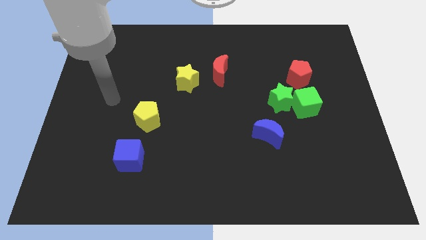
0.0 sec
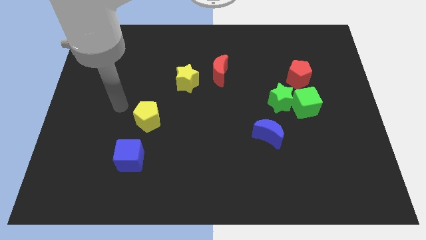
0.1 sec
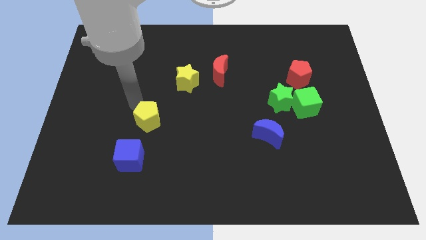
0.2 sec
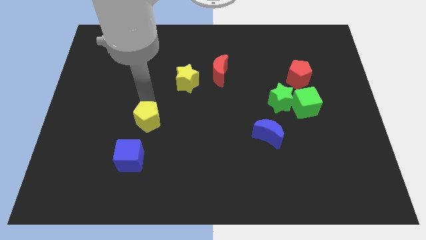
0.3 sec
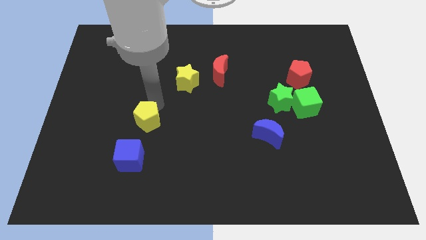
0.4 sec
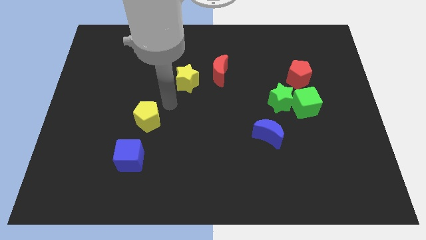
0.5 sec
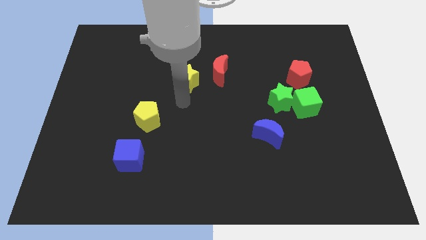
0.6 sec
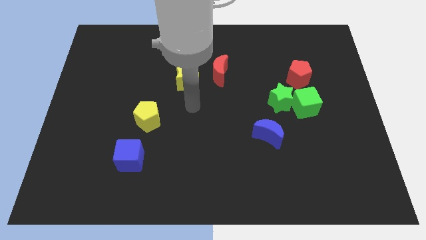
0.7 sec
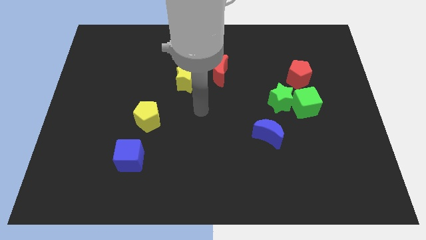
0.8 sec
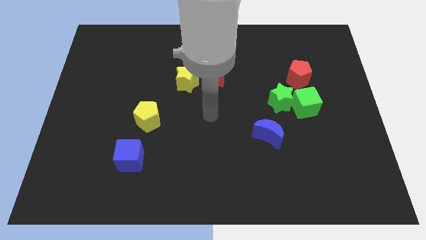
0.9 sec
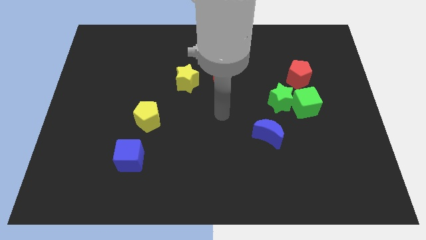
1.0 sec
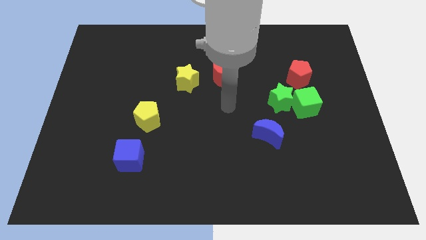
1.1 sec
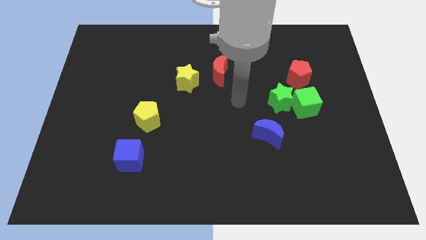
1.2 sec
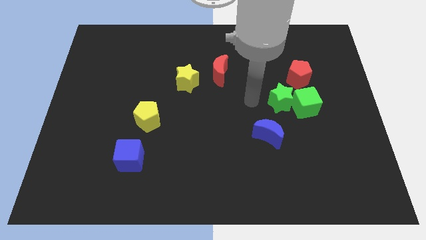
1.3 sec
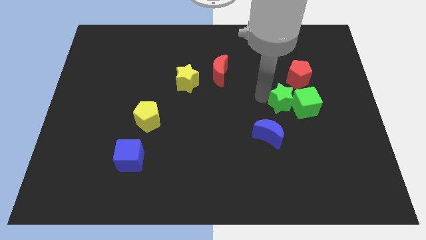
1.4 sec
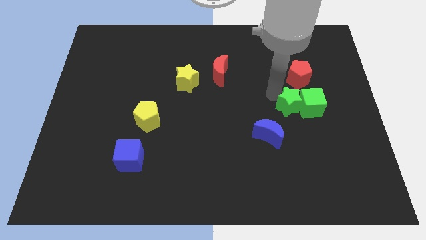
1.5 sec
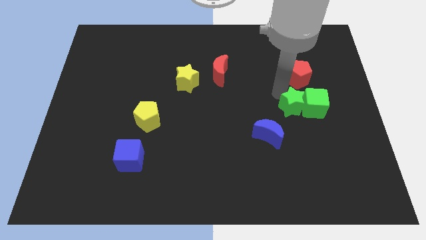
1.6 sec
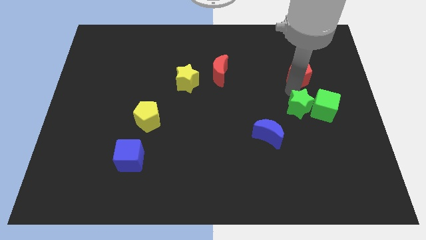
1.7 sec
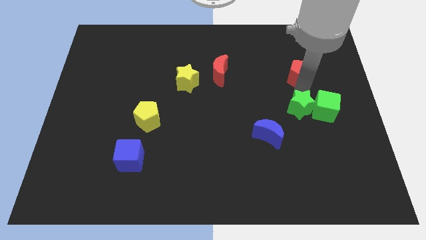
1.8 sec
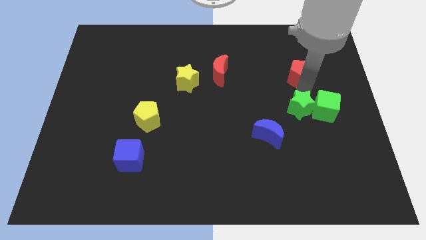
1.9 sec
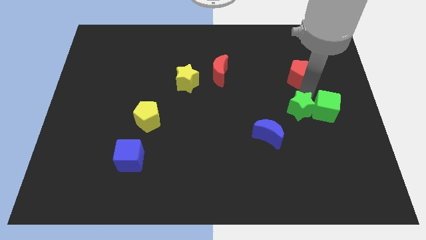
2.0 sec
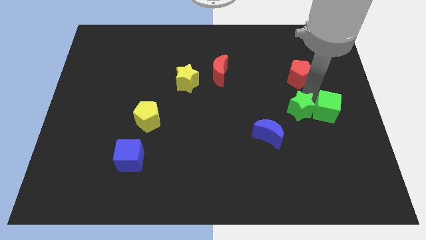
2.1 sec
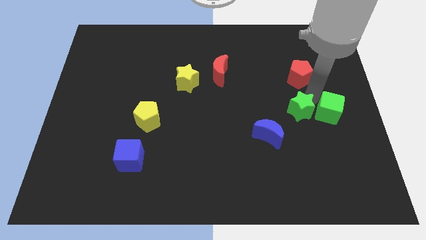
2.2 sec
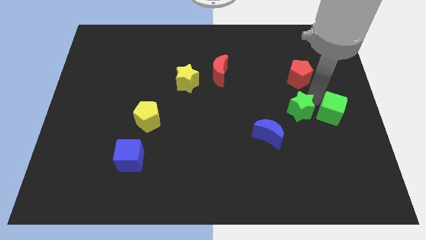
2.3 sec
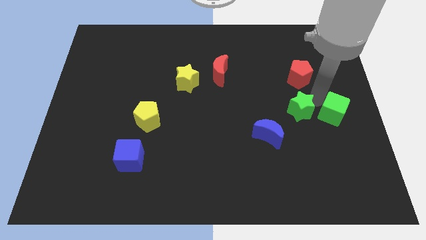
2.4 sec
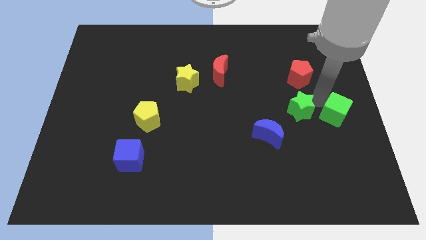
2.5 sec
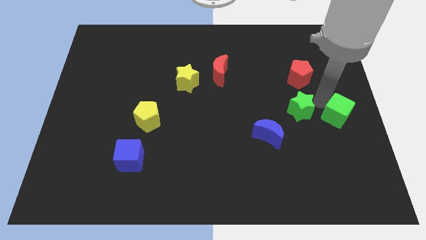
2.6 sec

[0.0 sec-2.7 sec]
pull the green cube apart from the green star and red pentagon

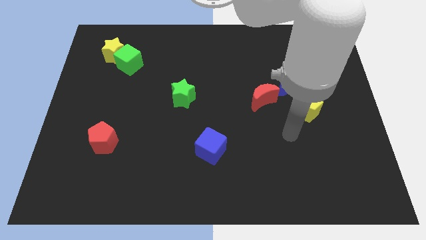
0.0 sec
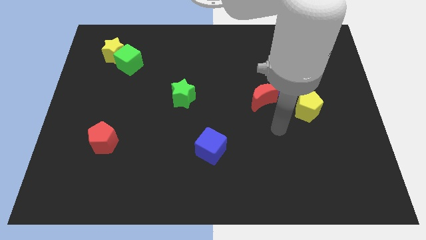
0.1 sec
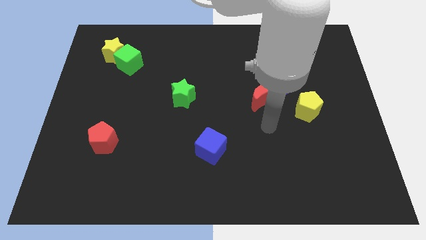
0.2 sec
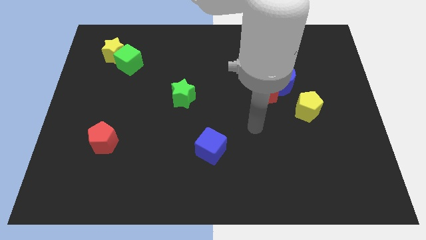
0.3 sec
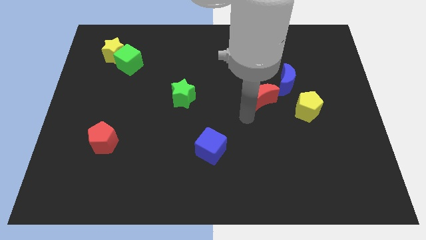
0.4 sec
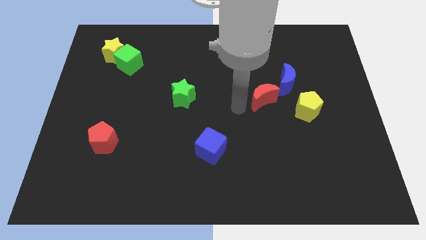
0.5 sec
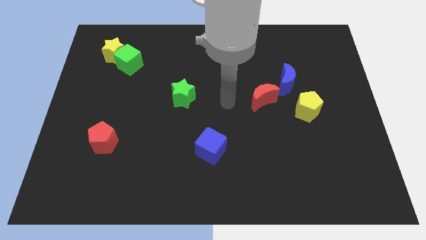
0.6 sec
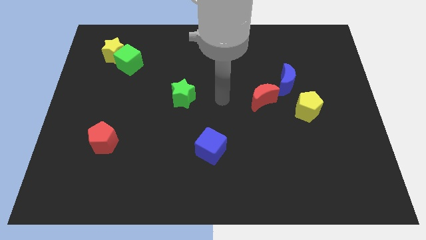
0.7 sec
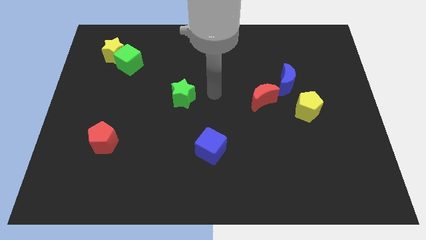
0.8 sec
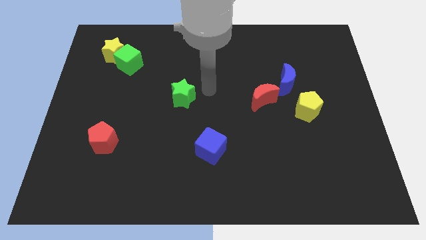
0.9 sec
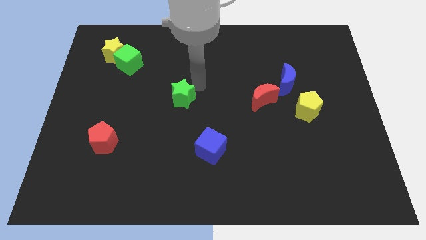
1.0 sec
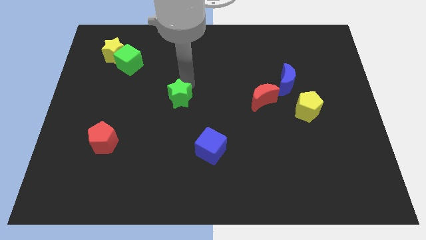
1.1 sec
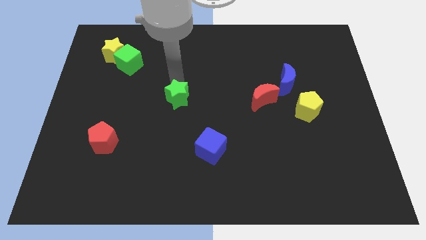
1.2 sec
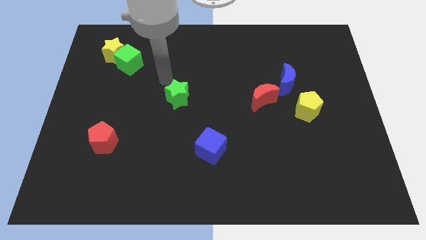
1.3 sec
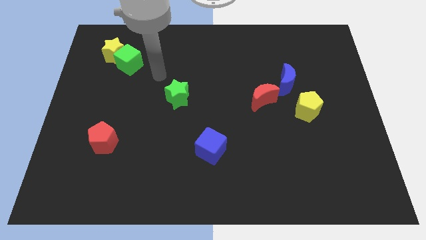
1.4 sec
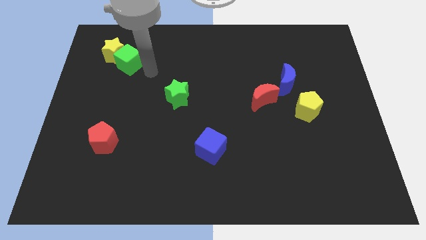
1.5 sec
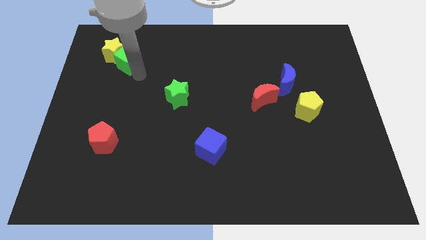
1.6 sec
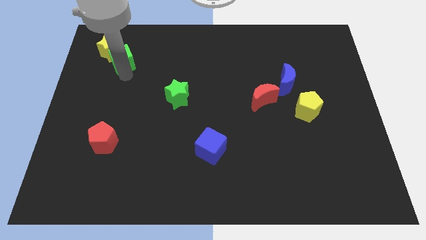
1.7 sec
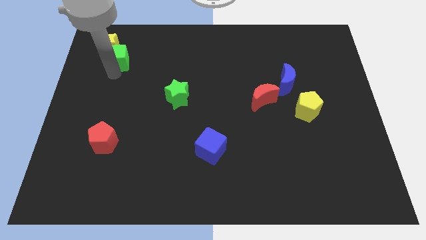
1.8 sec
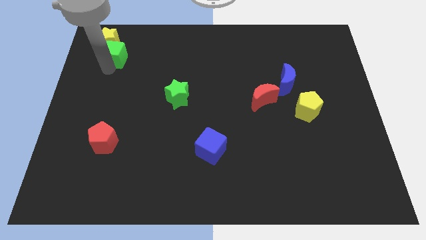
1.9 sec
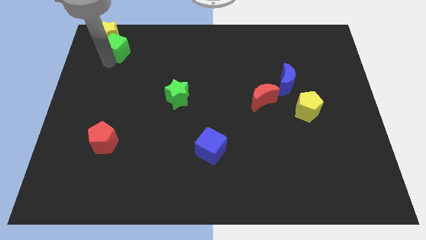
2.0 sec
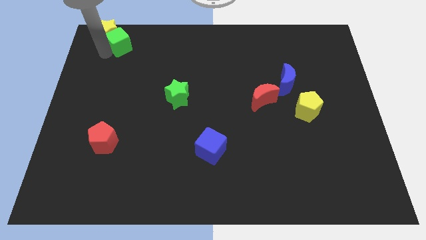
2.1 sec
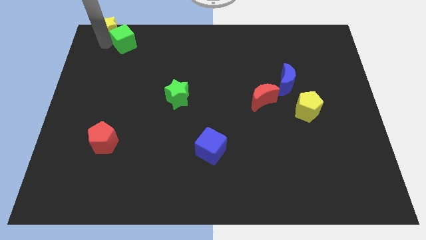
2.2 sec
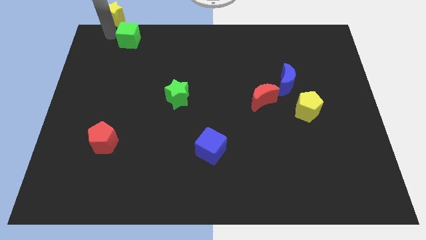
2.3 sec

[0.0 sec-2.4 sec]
move the green cube away from the yellow star

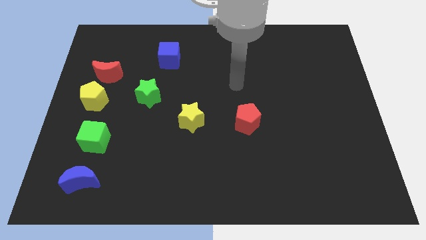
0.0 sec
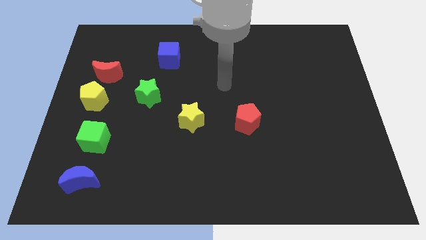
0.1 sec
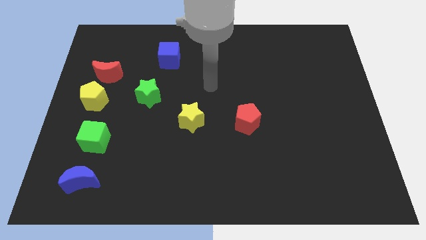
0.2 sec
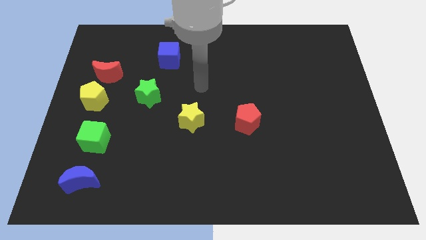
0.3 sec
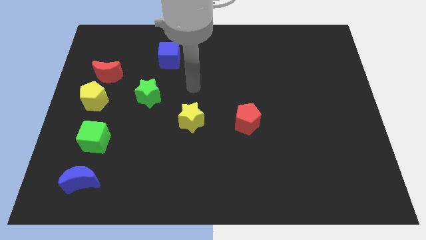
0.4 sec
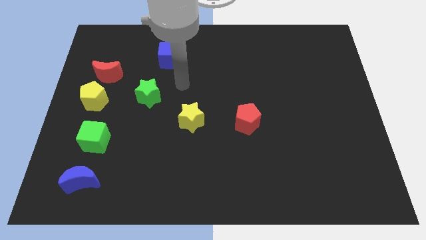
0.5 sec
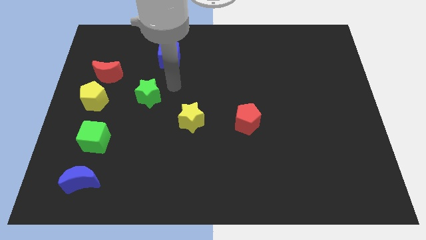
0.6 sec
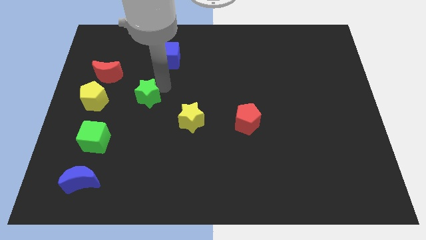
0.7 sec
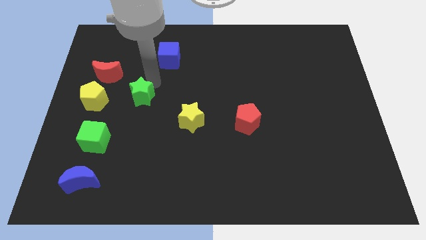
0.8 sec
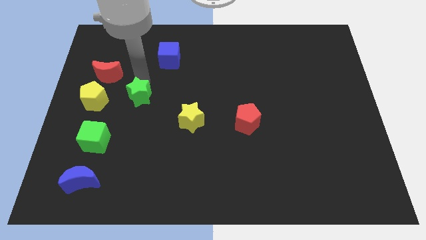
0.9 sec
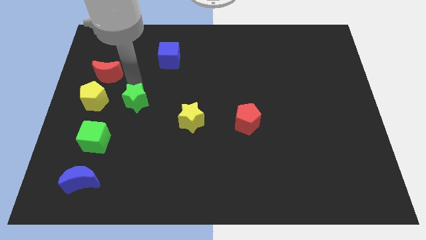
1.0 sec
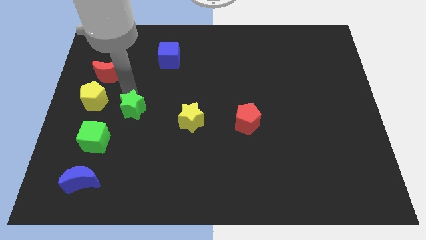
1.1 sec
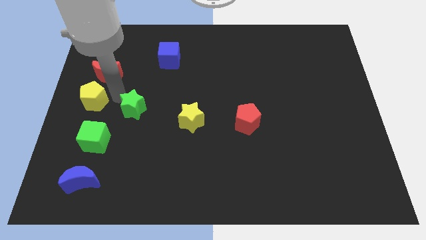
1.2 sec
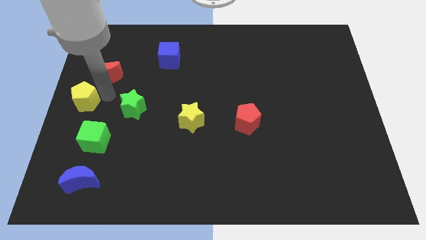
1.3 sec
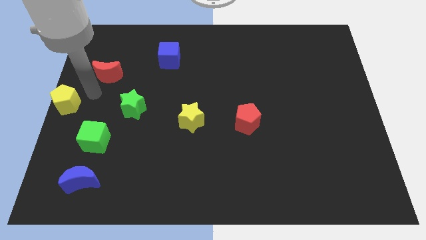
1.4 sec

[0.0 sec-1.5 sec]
pull the red moon apart from the yellow pentagon

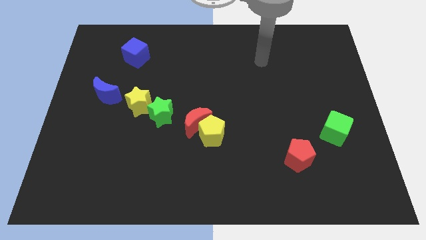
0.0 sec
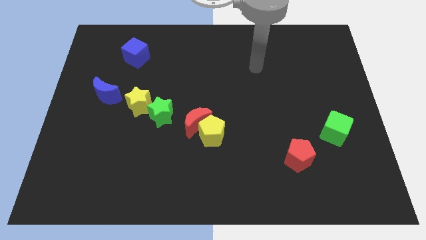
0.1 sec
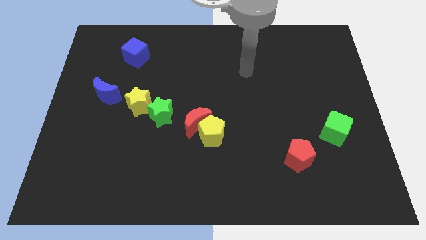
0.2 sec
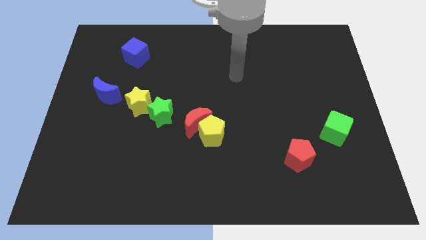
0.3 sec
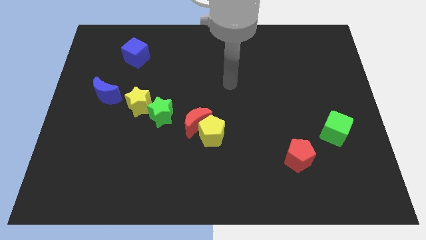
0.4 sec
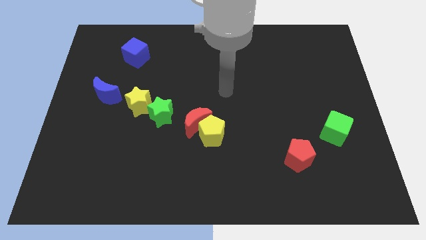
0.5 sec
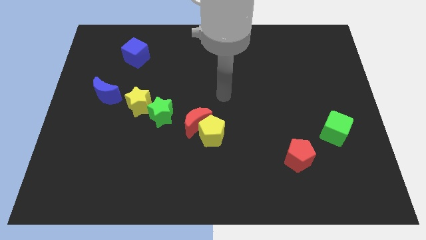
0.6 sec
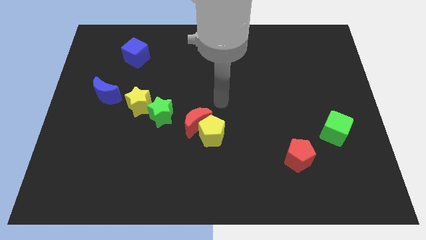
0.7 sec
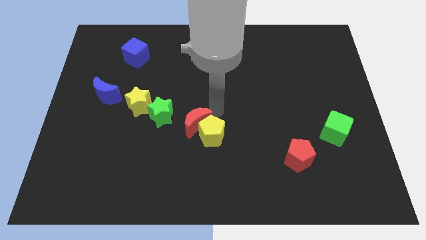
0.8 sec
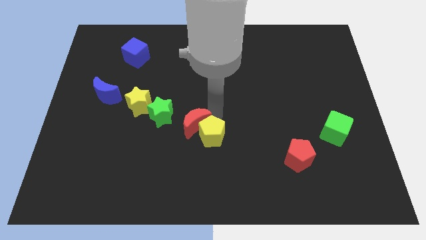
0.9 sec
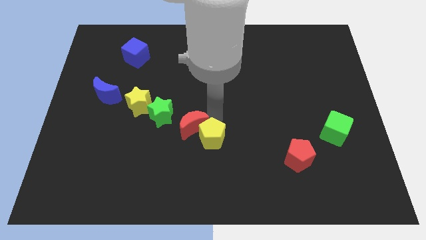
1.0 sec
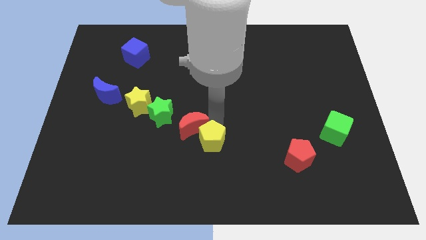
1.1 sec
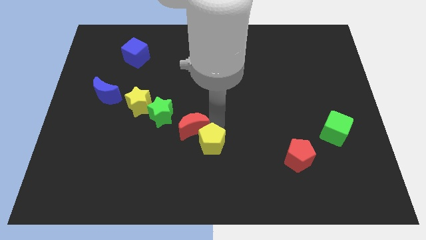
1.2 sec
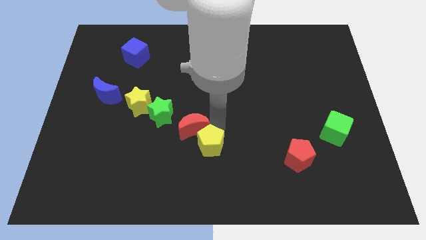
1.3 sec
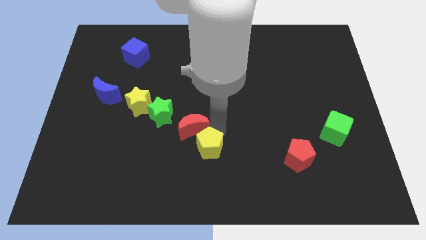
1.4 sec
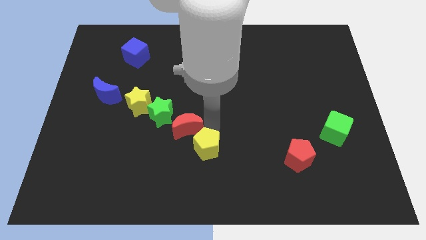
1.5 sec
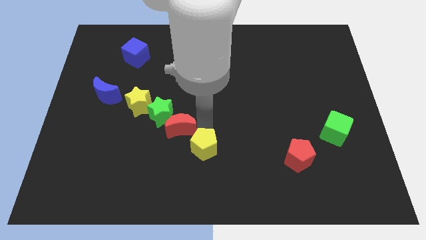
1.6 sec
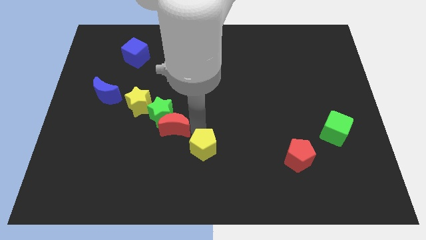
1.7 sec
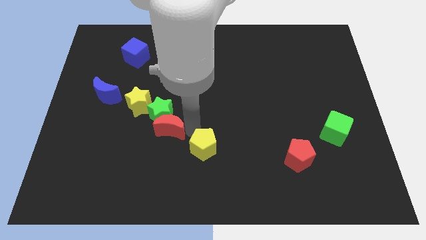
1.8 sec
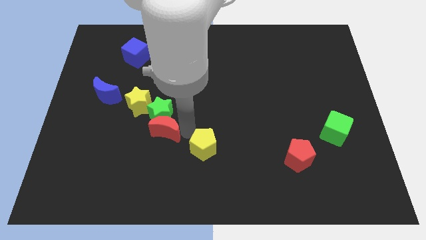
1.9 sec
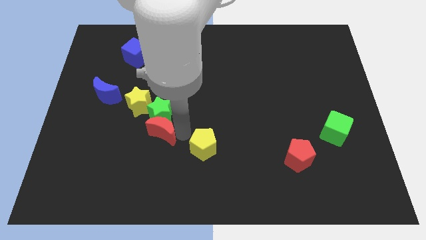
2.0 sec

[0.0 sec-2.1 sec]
move the yellow pentagon away from the red moon

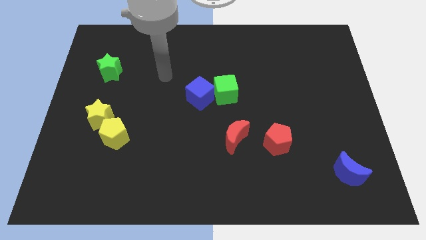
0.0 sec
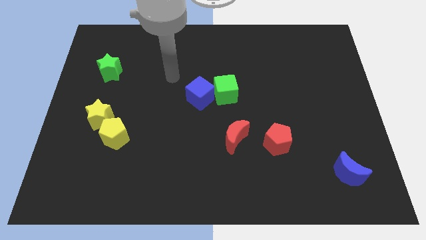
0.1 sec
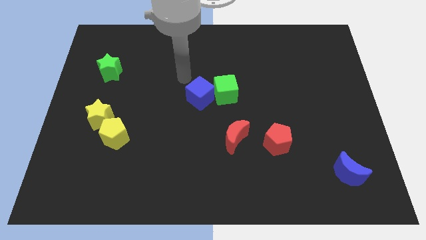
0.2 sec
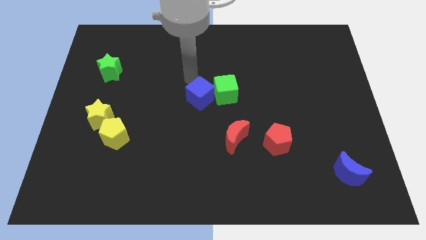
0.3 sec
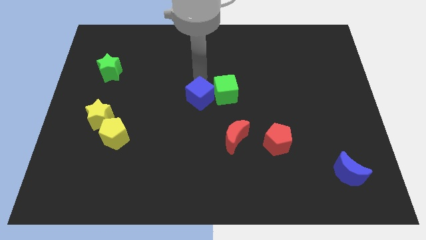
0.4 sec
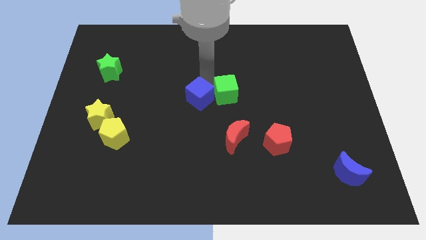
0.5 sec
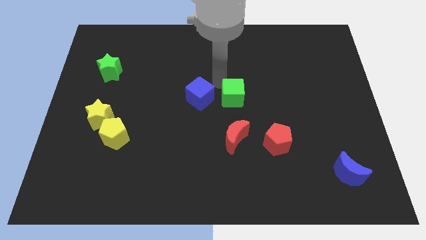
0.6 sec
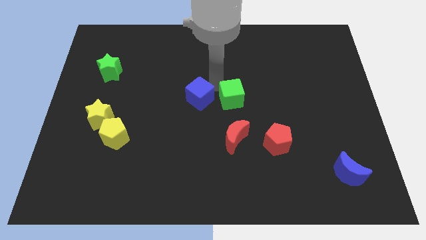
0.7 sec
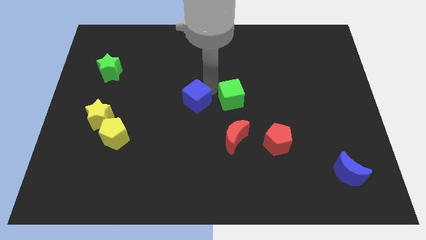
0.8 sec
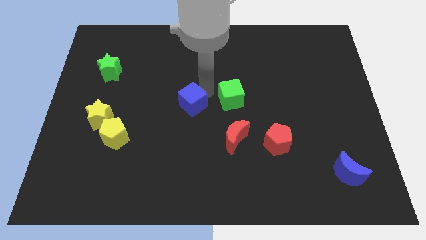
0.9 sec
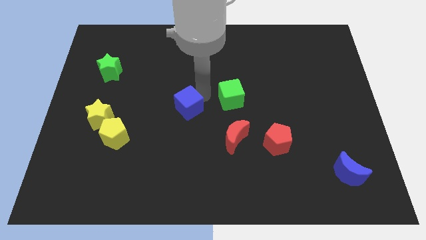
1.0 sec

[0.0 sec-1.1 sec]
move the blue cube away from the green cube
